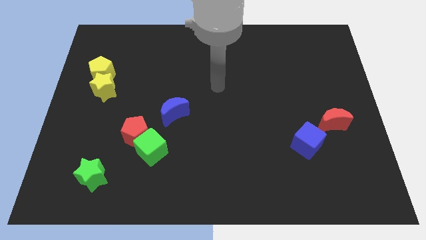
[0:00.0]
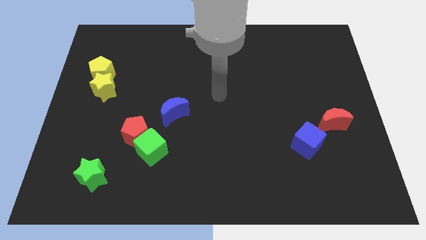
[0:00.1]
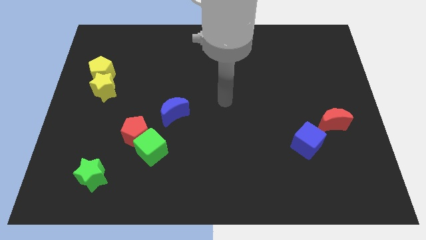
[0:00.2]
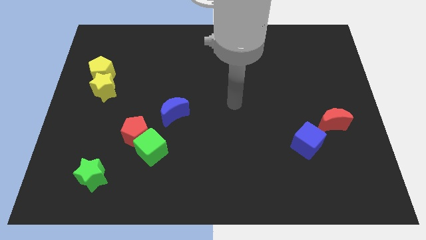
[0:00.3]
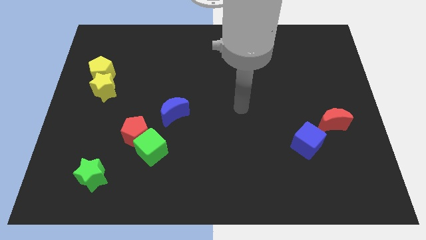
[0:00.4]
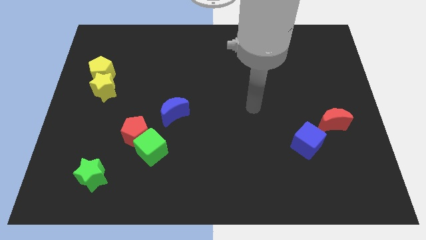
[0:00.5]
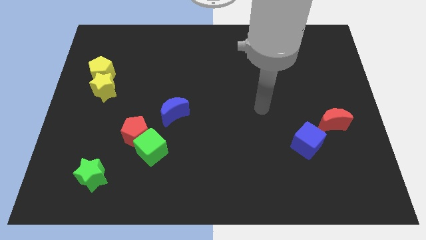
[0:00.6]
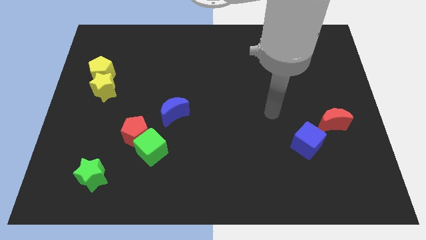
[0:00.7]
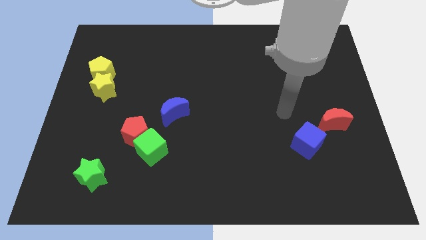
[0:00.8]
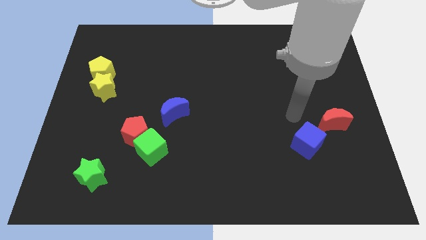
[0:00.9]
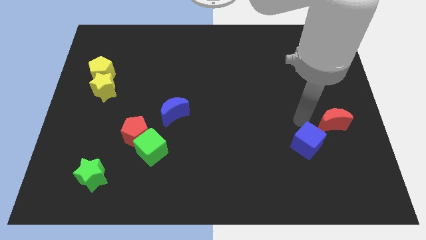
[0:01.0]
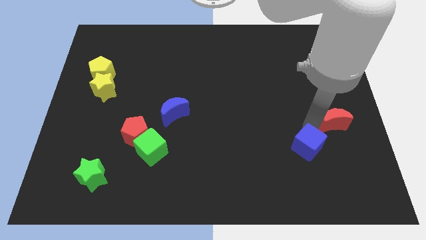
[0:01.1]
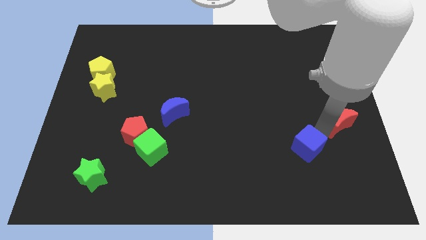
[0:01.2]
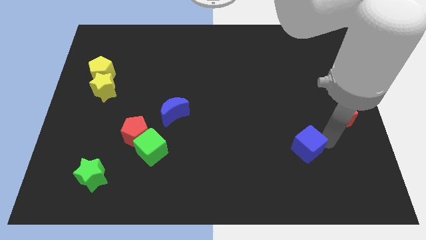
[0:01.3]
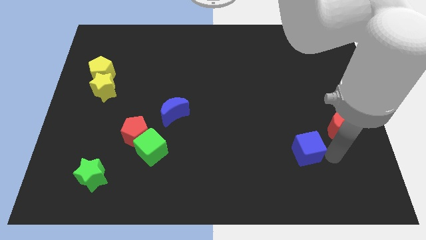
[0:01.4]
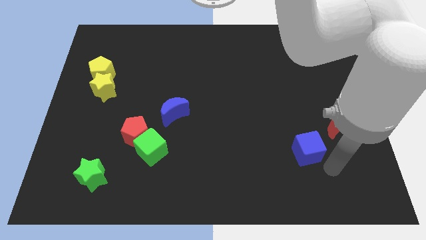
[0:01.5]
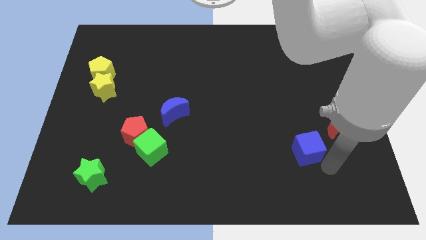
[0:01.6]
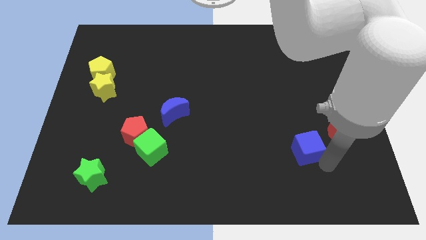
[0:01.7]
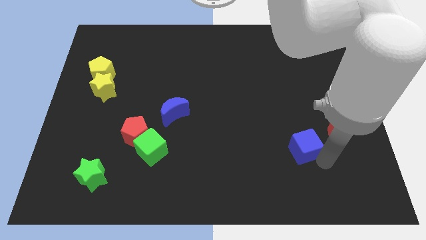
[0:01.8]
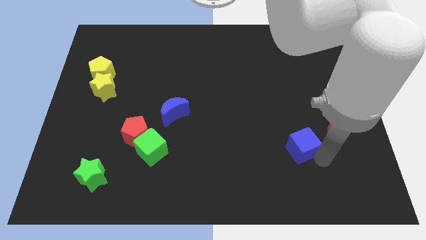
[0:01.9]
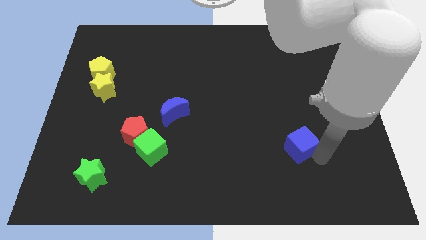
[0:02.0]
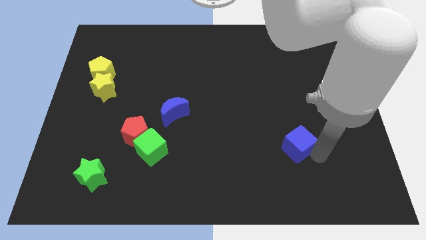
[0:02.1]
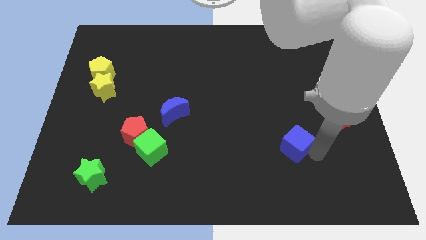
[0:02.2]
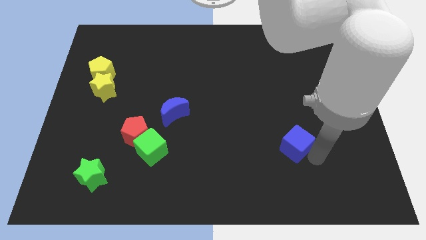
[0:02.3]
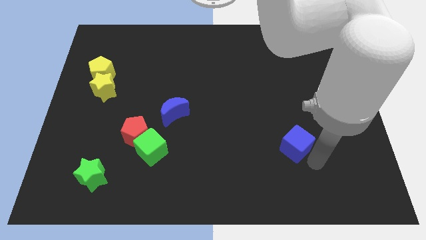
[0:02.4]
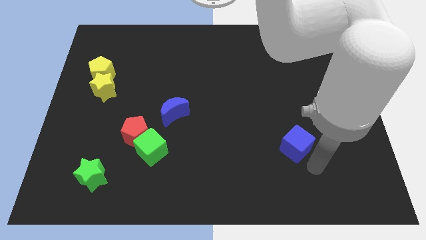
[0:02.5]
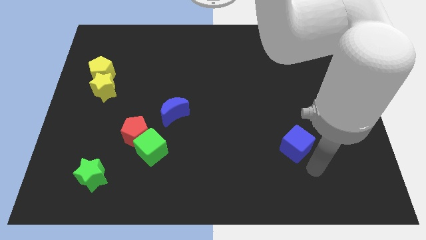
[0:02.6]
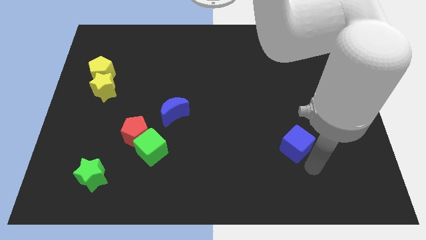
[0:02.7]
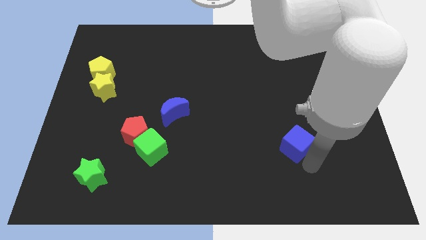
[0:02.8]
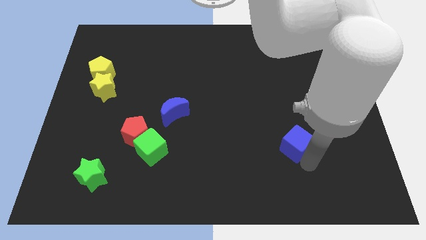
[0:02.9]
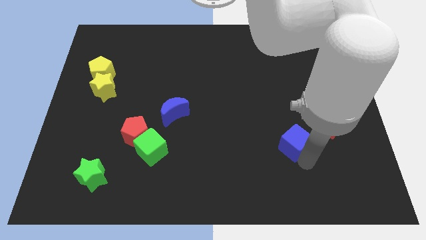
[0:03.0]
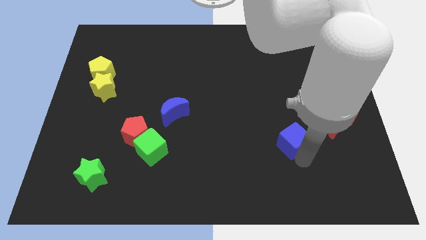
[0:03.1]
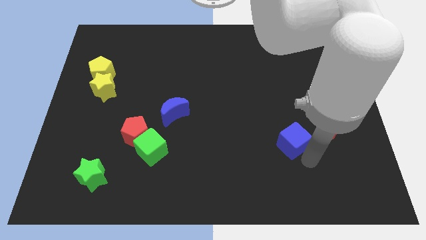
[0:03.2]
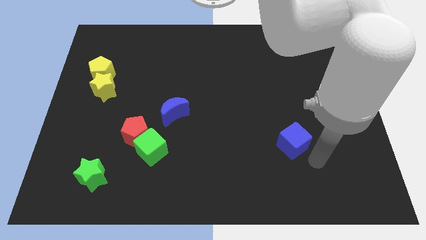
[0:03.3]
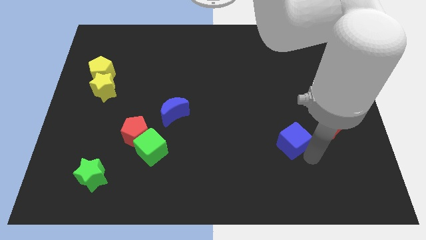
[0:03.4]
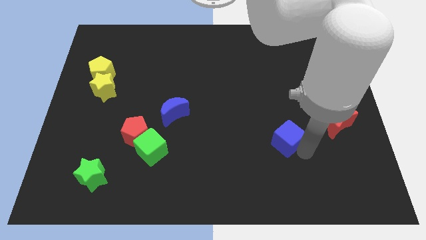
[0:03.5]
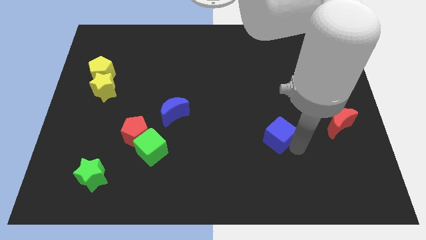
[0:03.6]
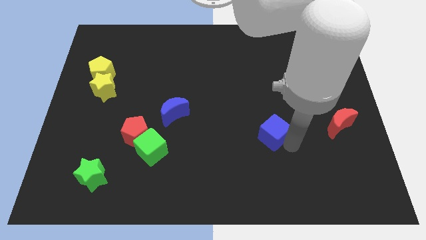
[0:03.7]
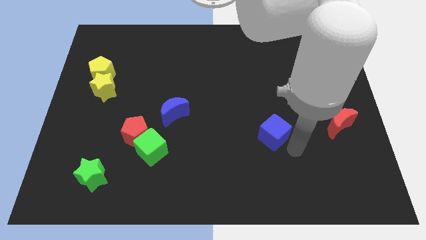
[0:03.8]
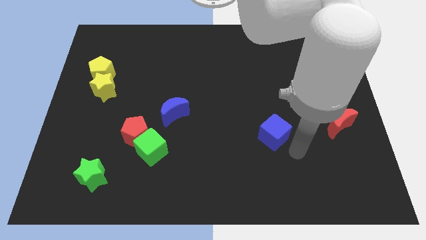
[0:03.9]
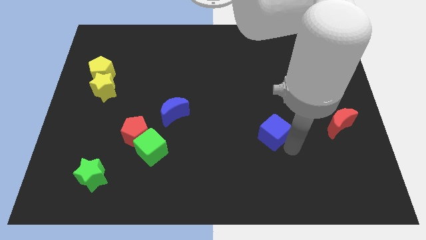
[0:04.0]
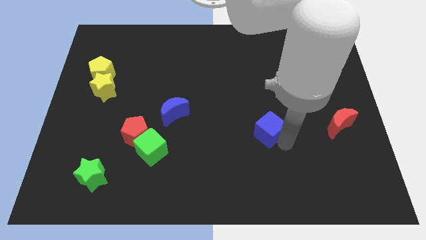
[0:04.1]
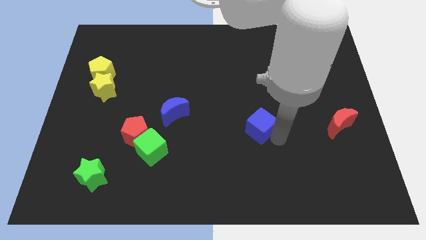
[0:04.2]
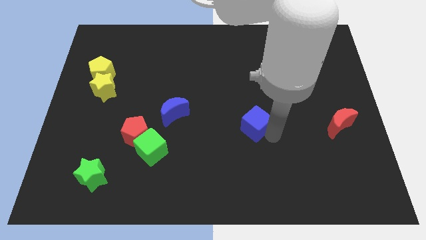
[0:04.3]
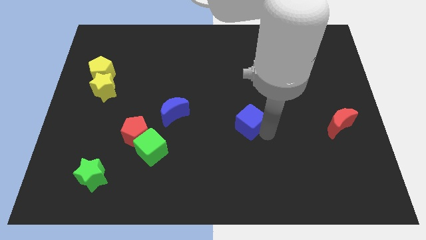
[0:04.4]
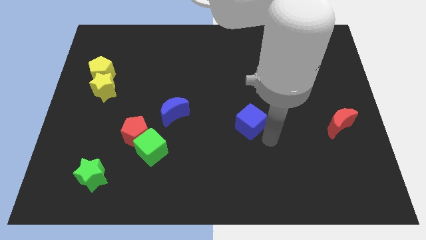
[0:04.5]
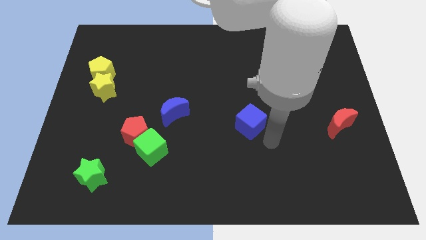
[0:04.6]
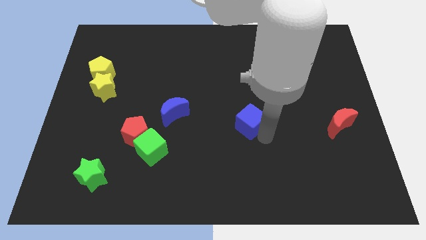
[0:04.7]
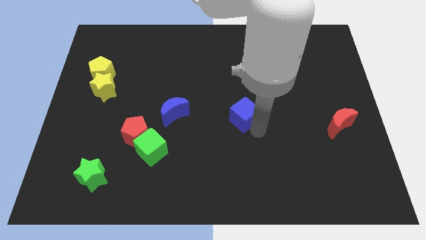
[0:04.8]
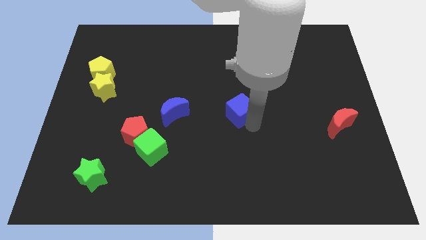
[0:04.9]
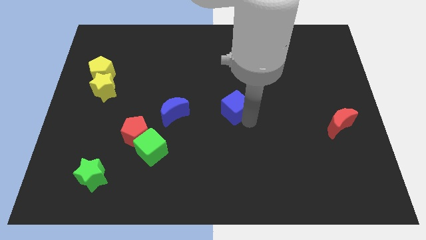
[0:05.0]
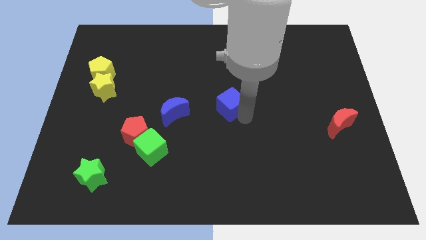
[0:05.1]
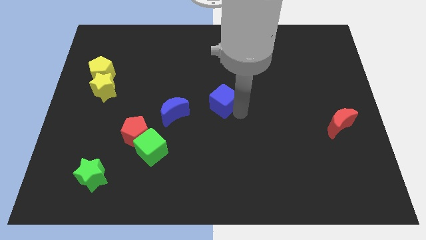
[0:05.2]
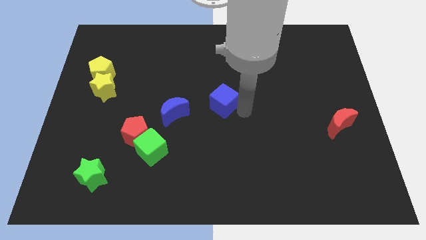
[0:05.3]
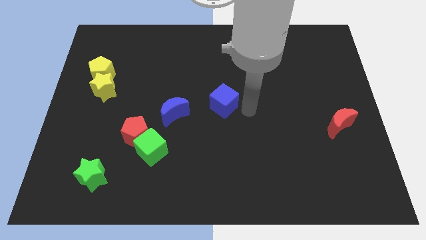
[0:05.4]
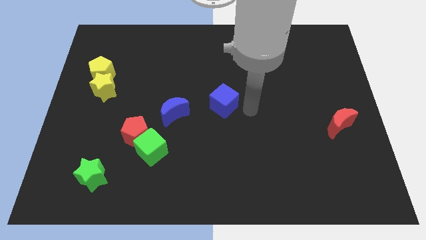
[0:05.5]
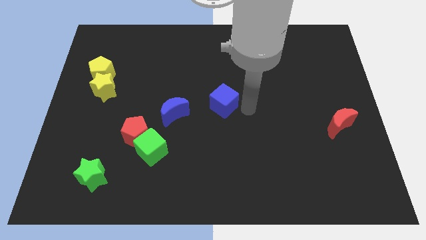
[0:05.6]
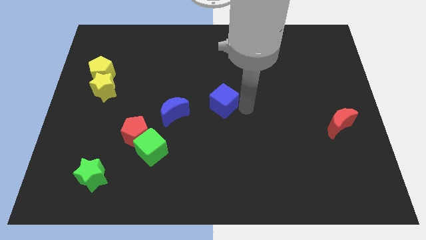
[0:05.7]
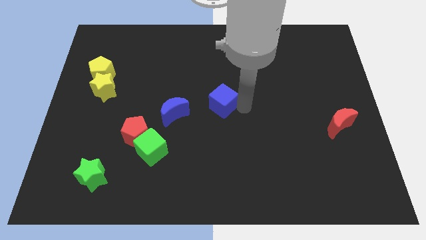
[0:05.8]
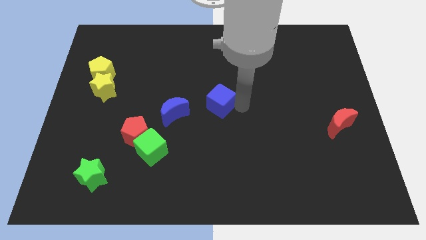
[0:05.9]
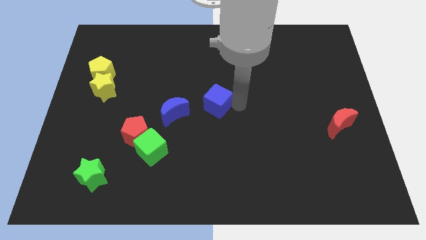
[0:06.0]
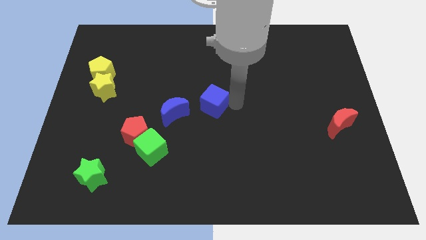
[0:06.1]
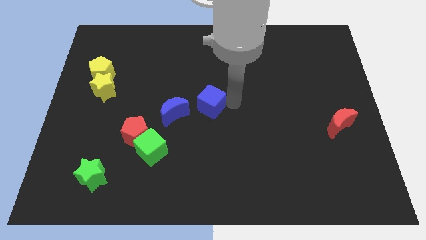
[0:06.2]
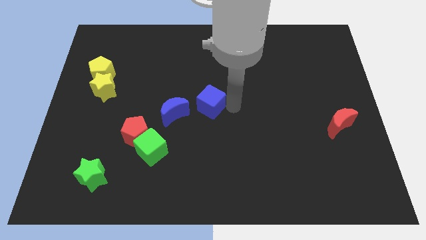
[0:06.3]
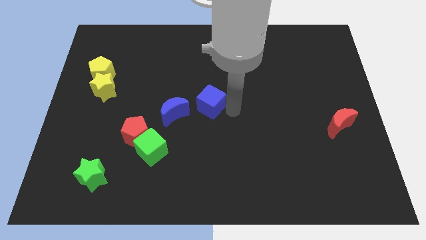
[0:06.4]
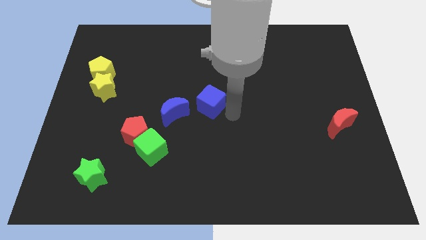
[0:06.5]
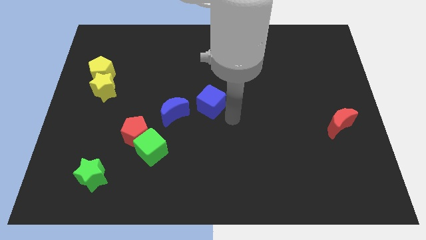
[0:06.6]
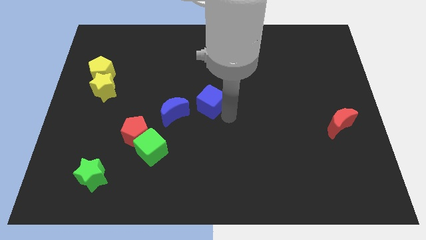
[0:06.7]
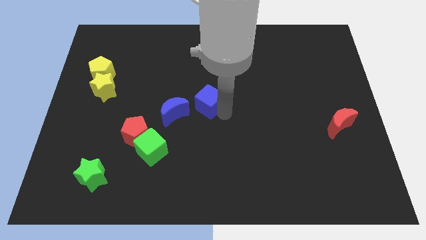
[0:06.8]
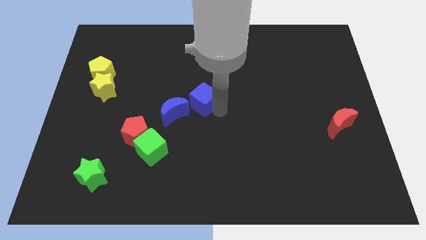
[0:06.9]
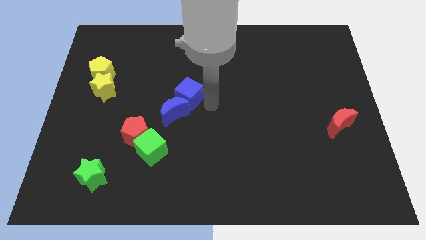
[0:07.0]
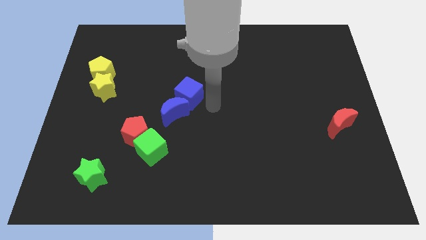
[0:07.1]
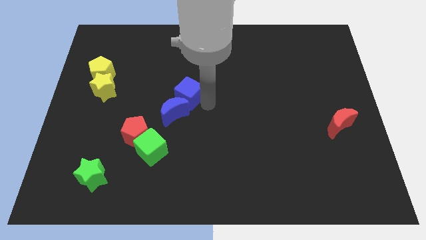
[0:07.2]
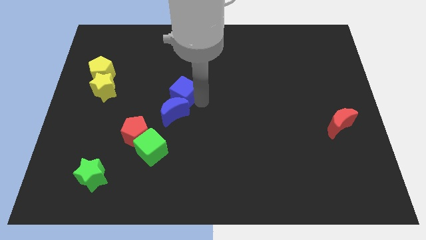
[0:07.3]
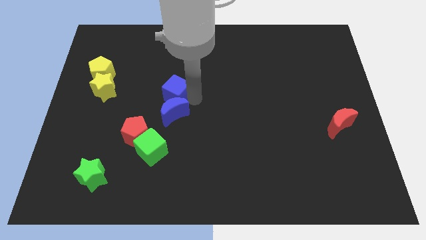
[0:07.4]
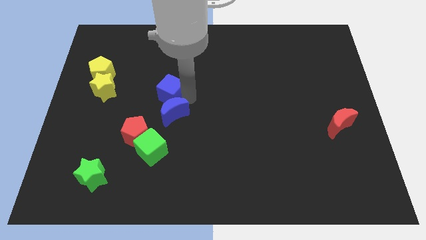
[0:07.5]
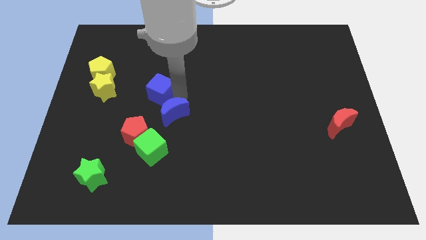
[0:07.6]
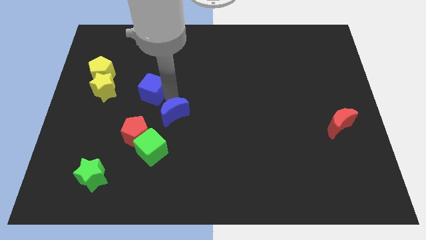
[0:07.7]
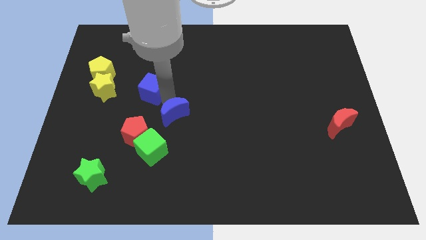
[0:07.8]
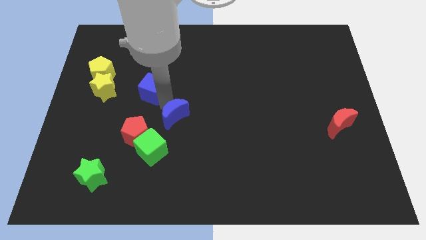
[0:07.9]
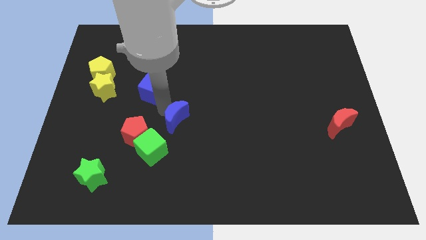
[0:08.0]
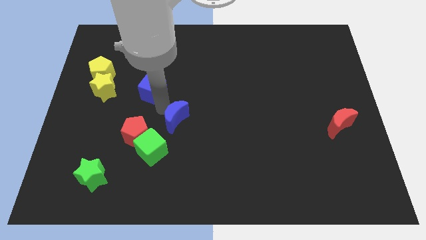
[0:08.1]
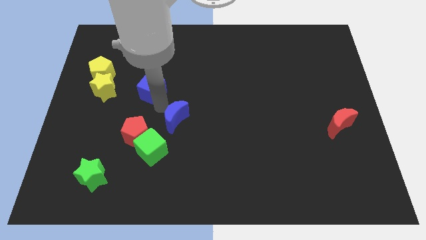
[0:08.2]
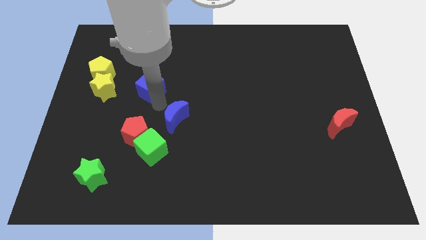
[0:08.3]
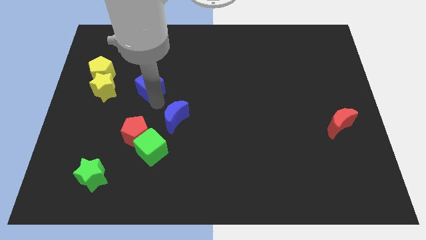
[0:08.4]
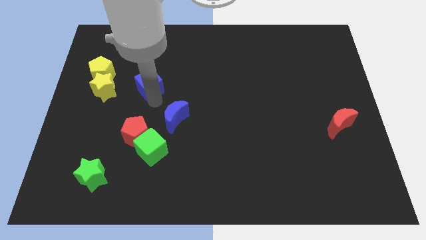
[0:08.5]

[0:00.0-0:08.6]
slide the blue cube to the right side of the yellow pentagon
